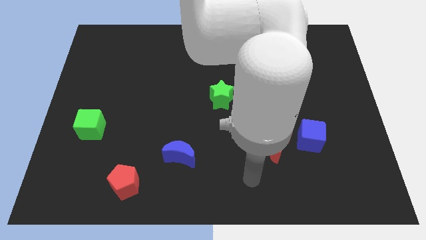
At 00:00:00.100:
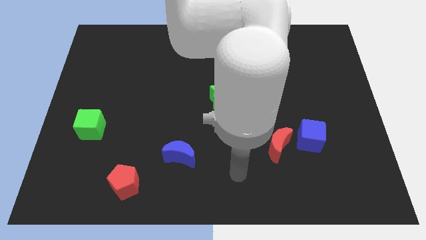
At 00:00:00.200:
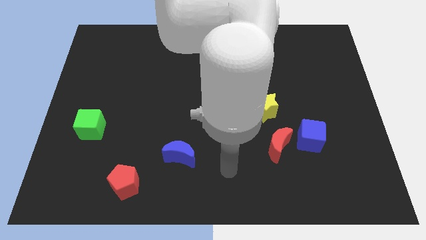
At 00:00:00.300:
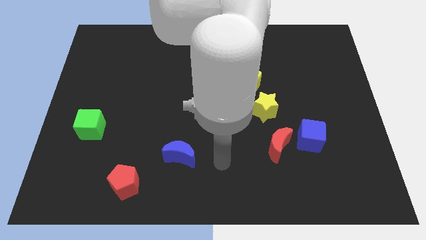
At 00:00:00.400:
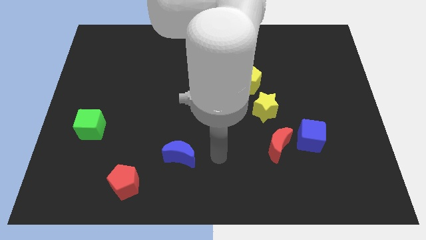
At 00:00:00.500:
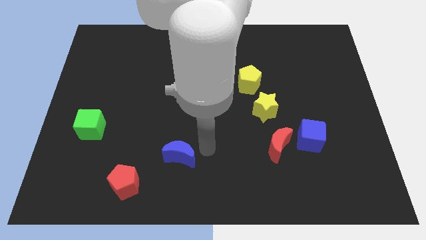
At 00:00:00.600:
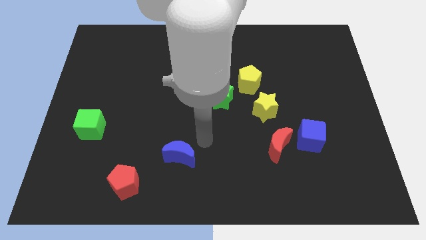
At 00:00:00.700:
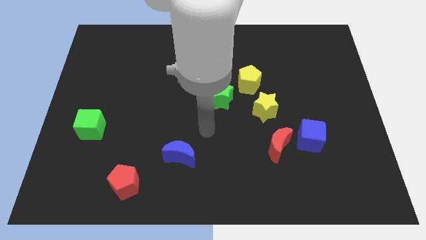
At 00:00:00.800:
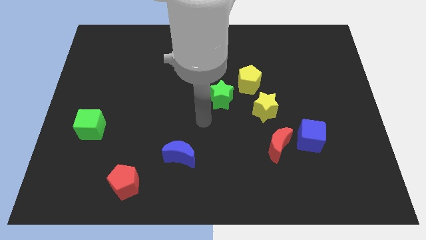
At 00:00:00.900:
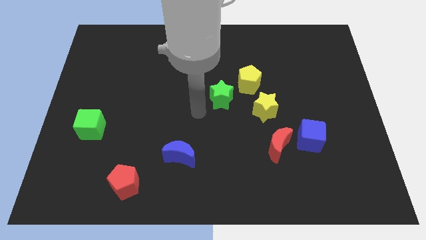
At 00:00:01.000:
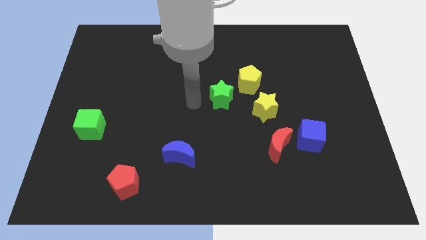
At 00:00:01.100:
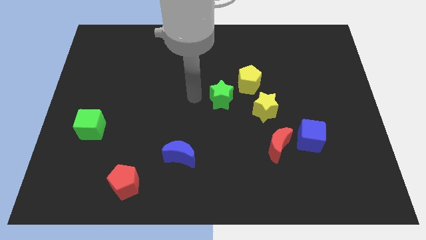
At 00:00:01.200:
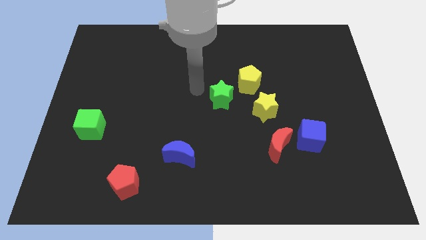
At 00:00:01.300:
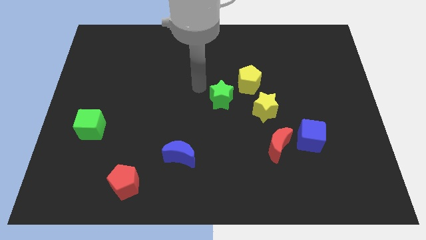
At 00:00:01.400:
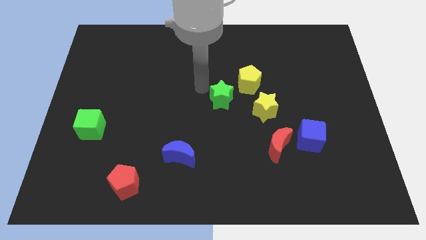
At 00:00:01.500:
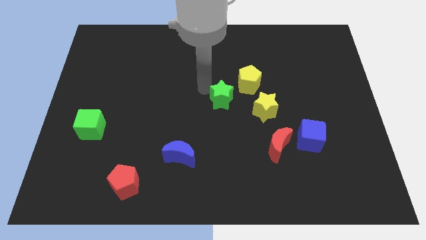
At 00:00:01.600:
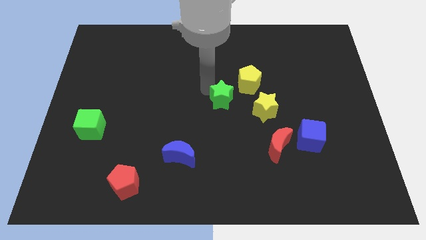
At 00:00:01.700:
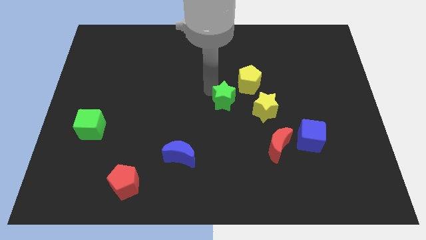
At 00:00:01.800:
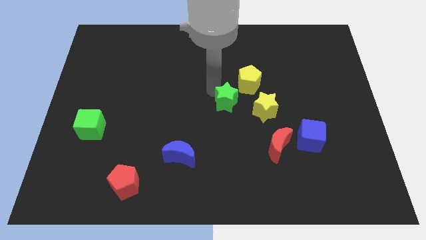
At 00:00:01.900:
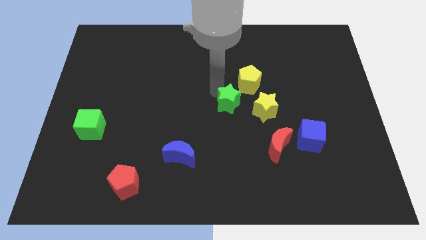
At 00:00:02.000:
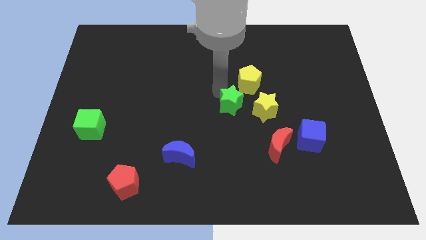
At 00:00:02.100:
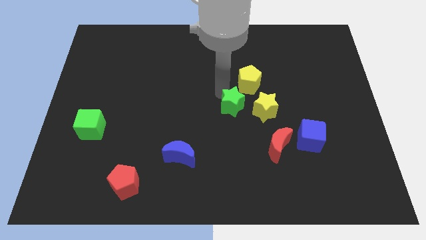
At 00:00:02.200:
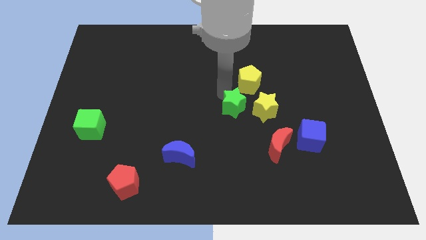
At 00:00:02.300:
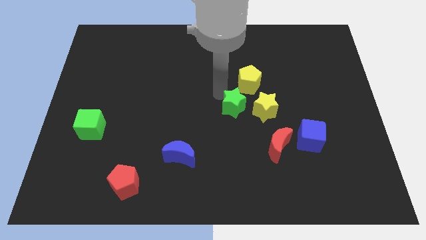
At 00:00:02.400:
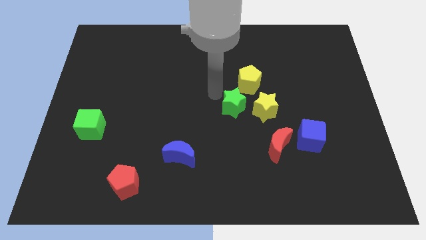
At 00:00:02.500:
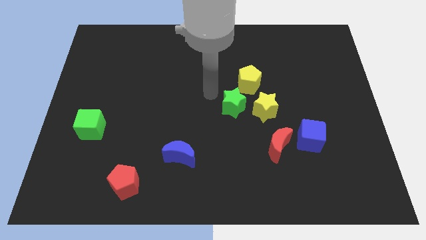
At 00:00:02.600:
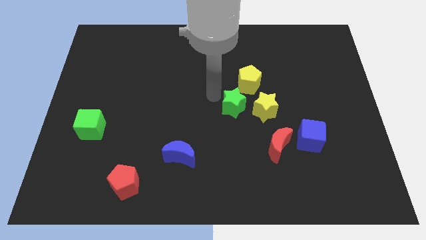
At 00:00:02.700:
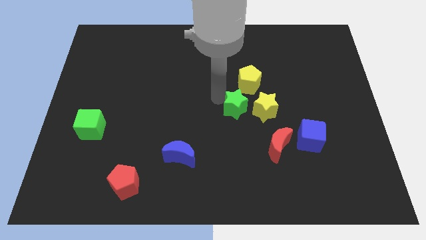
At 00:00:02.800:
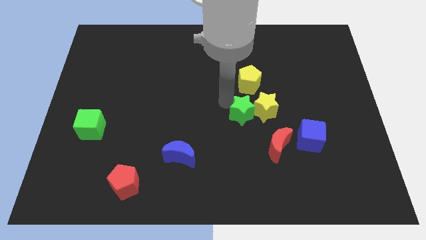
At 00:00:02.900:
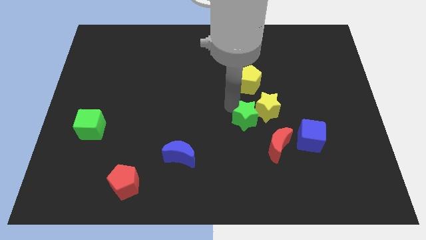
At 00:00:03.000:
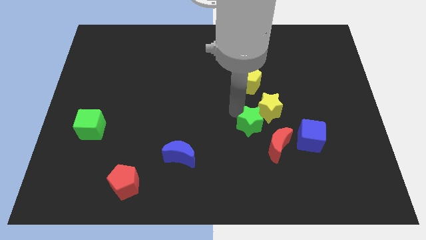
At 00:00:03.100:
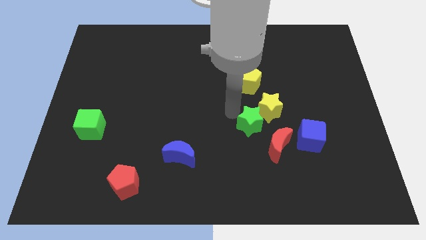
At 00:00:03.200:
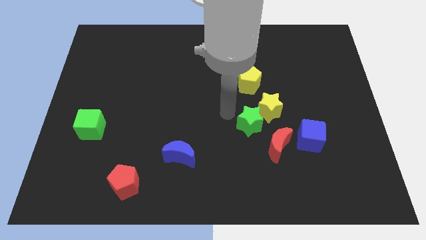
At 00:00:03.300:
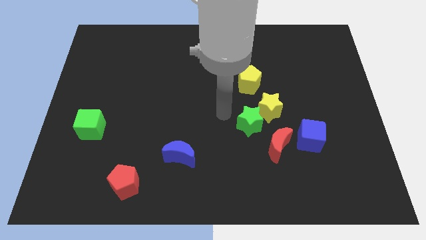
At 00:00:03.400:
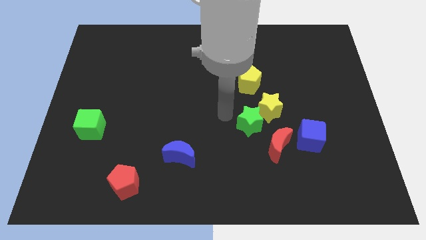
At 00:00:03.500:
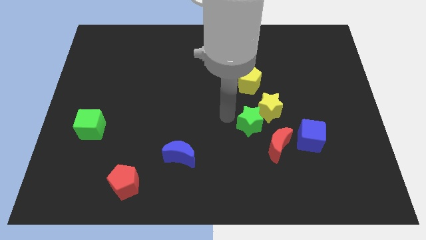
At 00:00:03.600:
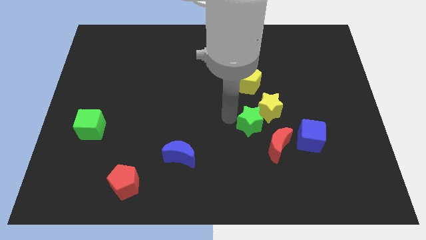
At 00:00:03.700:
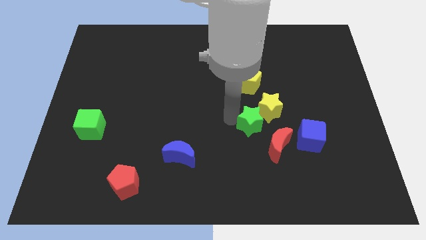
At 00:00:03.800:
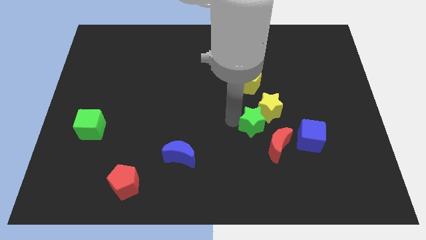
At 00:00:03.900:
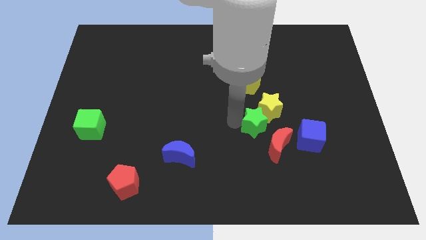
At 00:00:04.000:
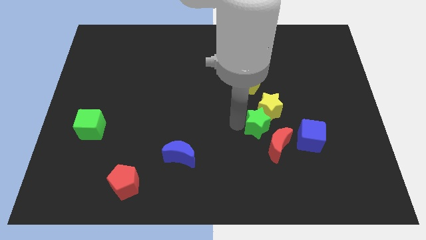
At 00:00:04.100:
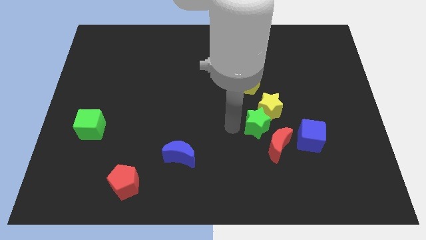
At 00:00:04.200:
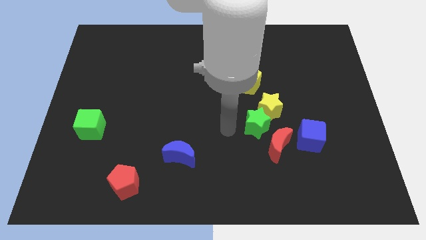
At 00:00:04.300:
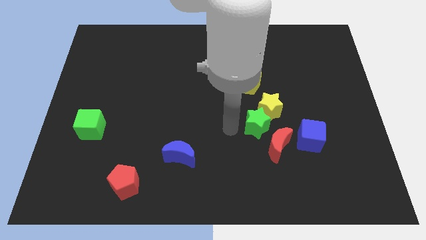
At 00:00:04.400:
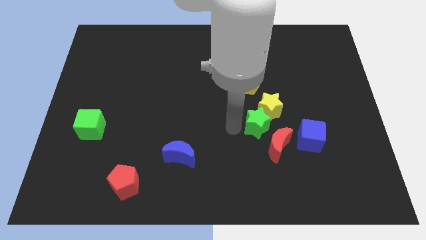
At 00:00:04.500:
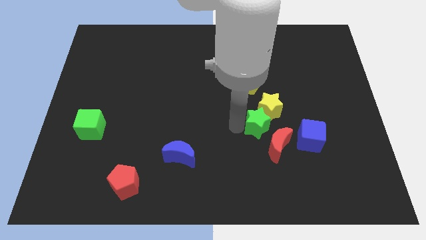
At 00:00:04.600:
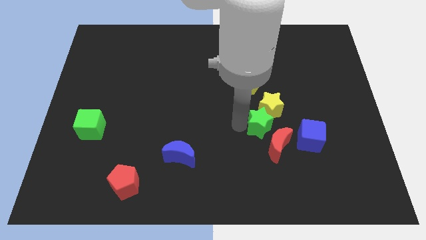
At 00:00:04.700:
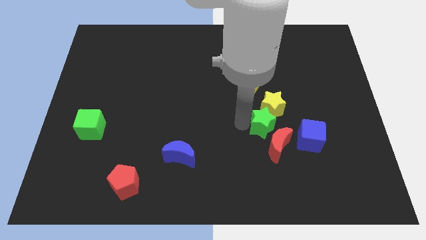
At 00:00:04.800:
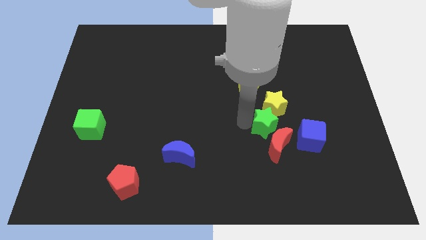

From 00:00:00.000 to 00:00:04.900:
push the green star right a little

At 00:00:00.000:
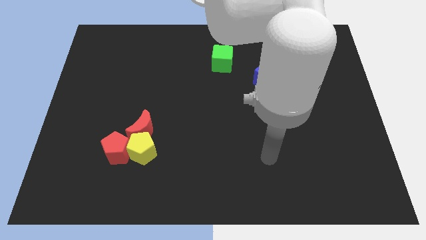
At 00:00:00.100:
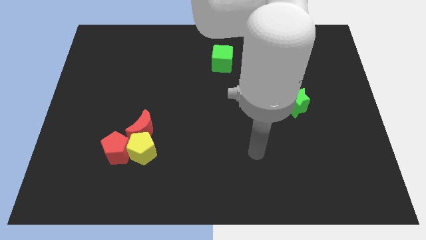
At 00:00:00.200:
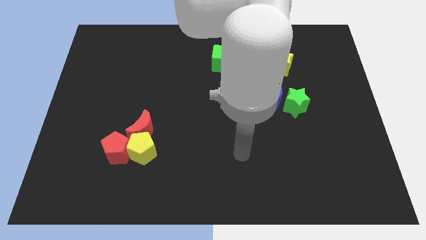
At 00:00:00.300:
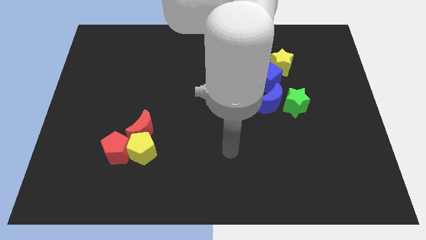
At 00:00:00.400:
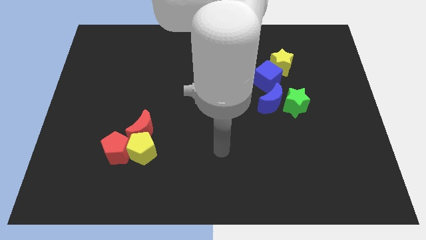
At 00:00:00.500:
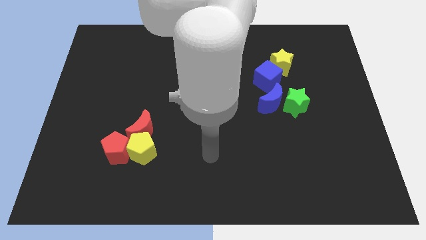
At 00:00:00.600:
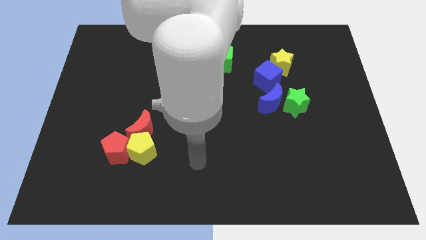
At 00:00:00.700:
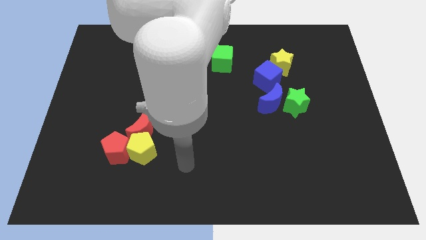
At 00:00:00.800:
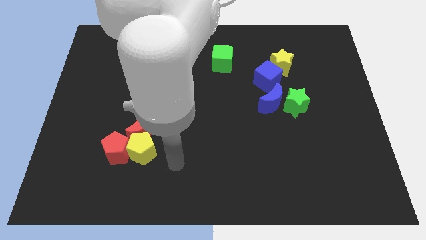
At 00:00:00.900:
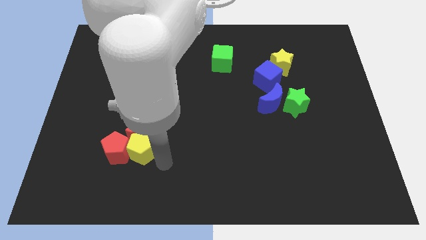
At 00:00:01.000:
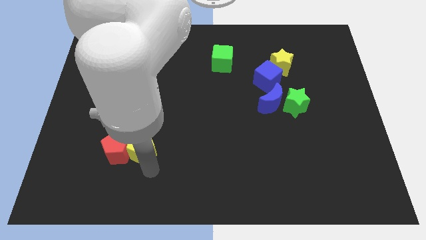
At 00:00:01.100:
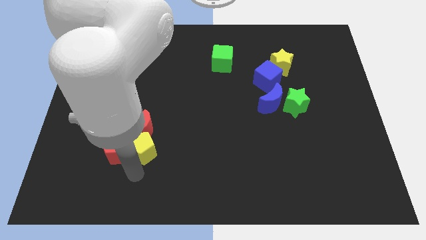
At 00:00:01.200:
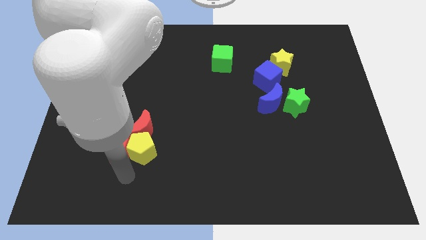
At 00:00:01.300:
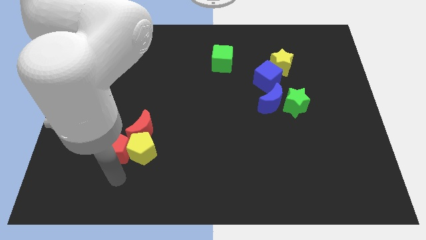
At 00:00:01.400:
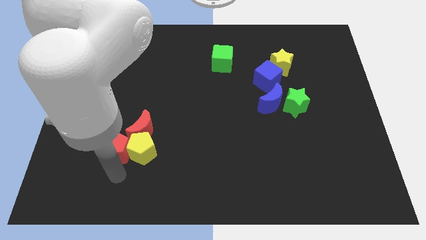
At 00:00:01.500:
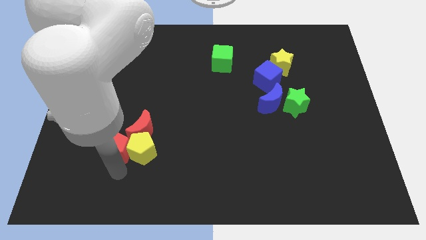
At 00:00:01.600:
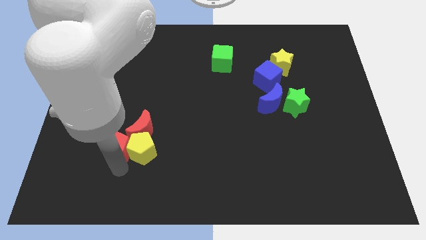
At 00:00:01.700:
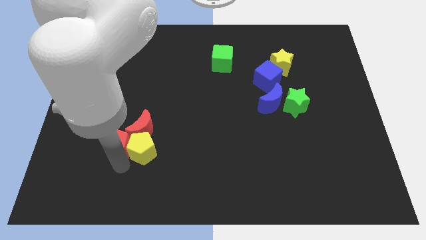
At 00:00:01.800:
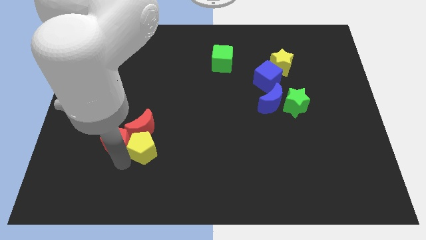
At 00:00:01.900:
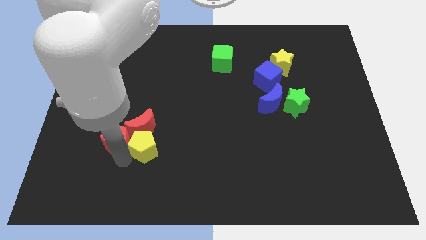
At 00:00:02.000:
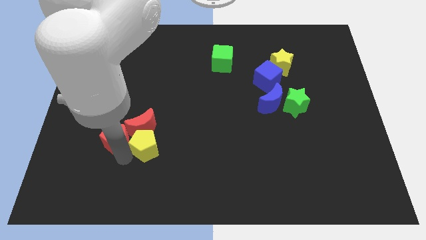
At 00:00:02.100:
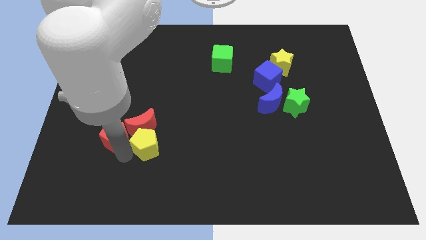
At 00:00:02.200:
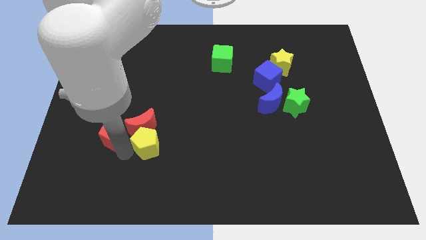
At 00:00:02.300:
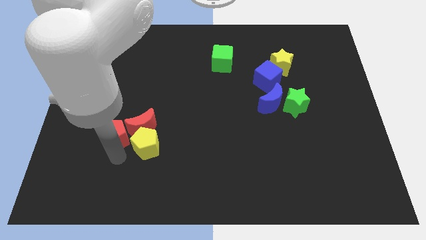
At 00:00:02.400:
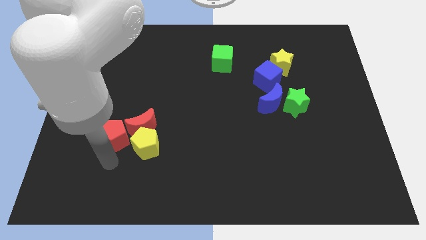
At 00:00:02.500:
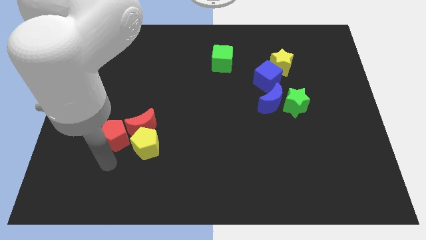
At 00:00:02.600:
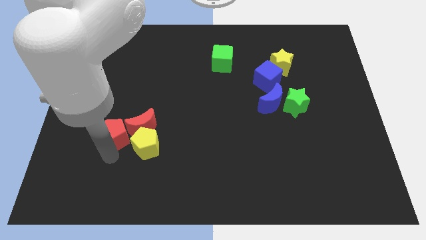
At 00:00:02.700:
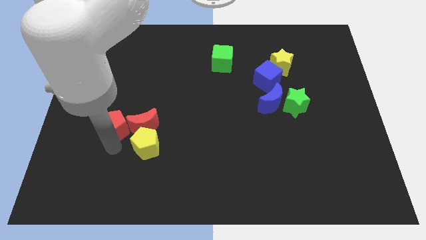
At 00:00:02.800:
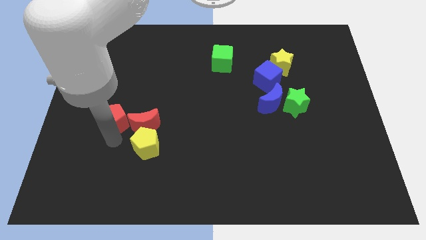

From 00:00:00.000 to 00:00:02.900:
push the red pentagon up slightly
